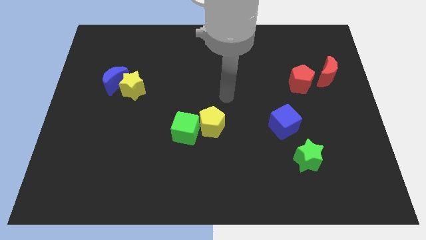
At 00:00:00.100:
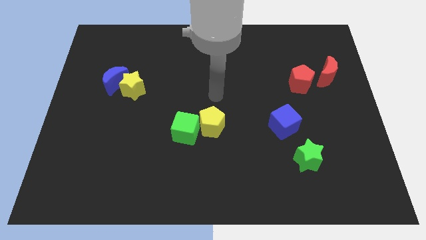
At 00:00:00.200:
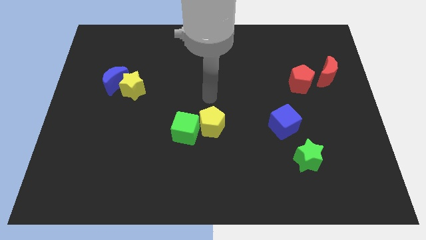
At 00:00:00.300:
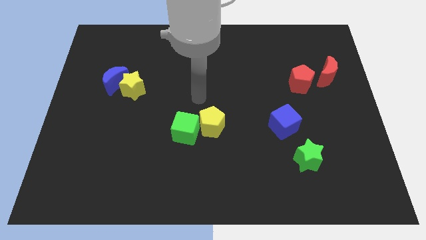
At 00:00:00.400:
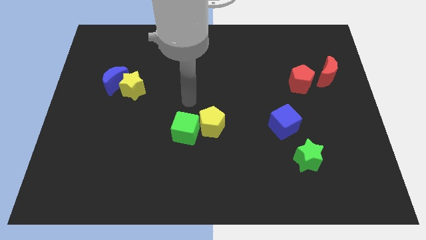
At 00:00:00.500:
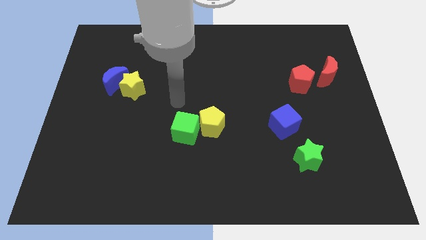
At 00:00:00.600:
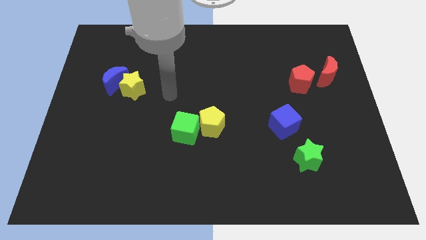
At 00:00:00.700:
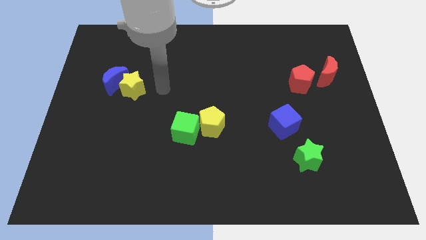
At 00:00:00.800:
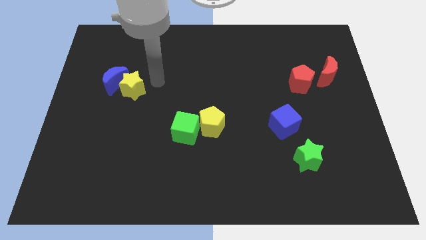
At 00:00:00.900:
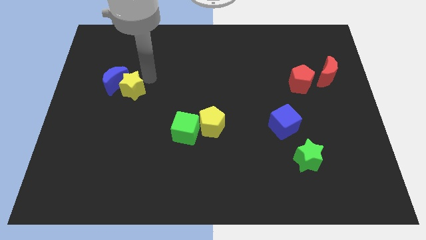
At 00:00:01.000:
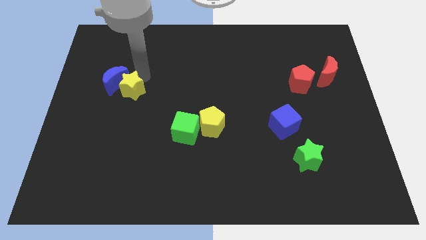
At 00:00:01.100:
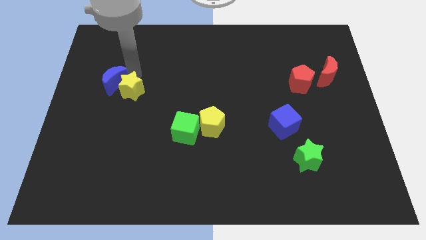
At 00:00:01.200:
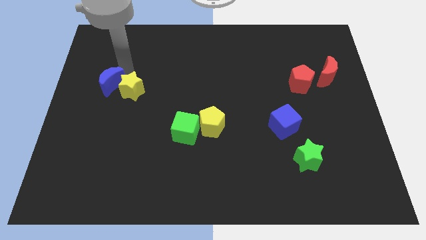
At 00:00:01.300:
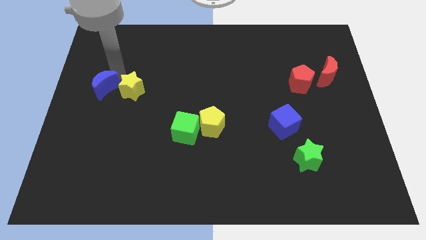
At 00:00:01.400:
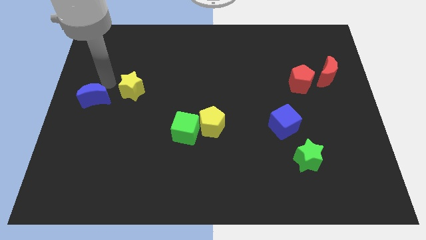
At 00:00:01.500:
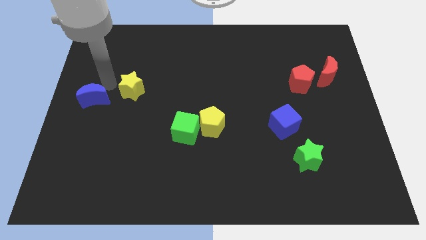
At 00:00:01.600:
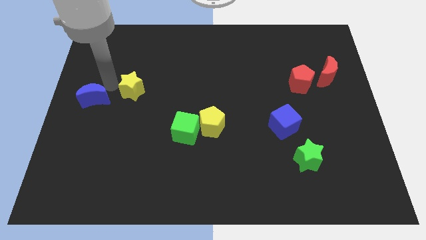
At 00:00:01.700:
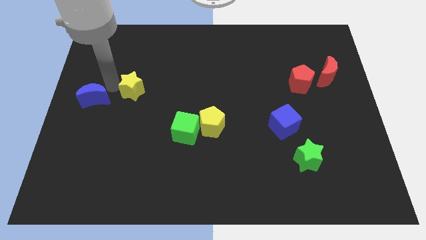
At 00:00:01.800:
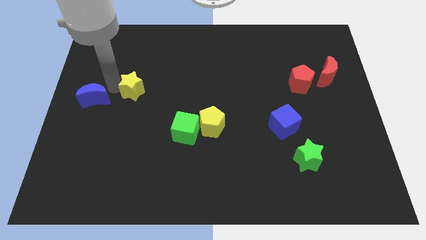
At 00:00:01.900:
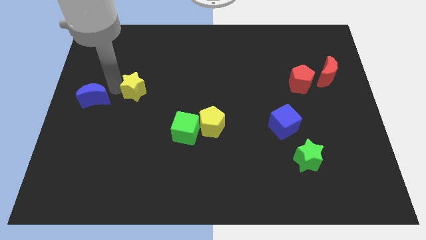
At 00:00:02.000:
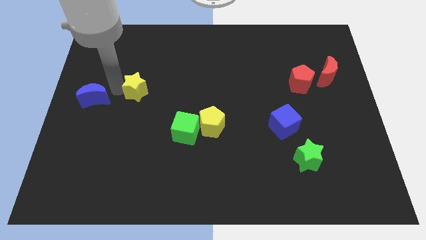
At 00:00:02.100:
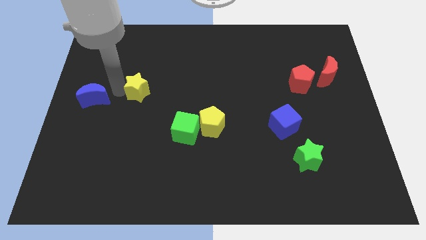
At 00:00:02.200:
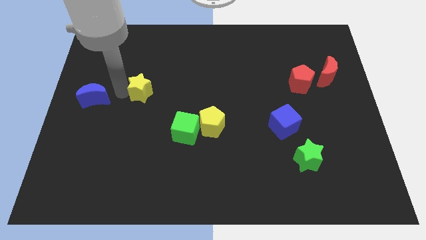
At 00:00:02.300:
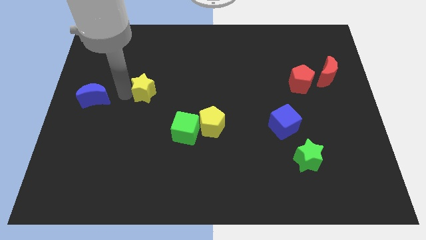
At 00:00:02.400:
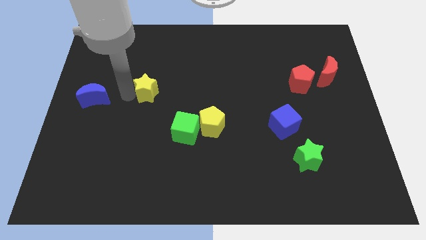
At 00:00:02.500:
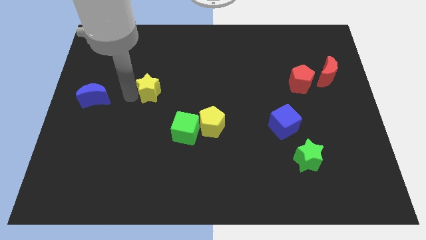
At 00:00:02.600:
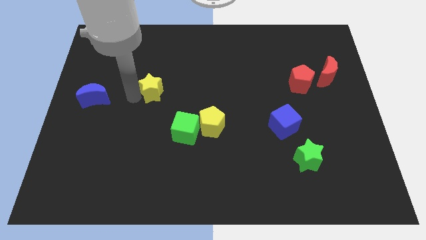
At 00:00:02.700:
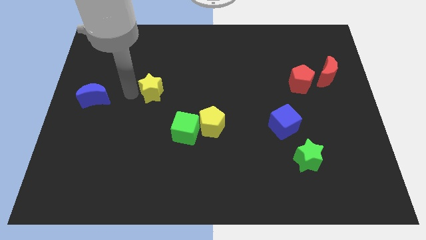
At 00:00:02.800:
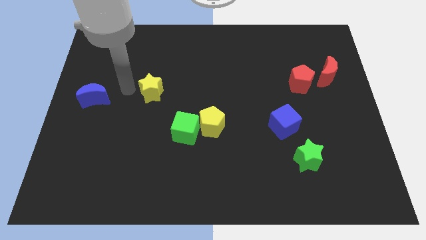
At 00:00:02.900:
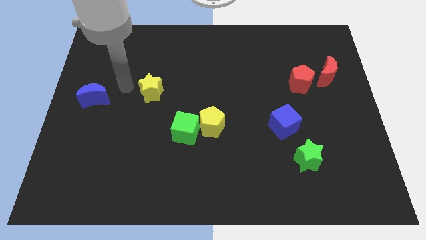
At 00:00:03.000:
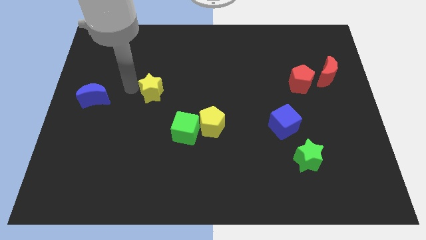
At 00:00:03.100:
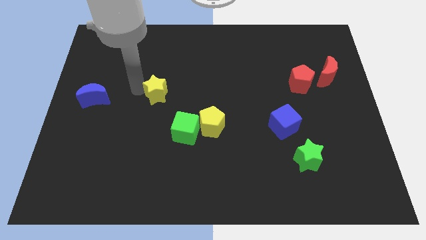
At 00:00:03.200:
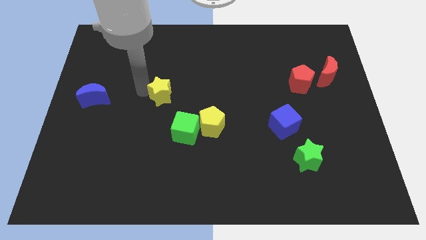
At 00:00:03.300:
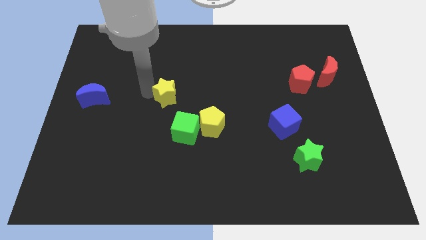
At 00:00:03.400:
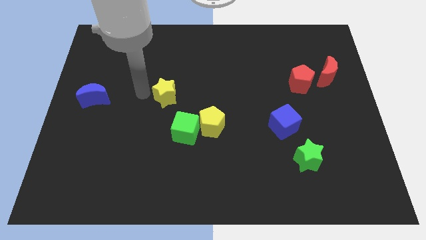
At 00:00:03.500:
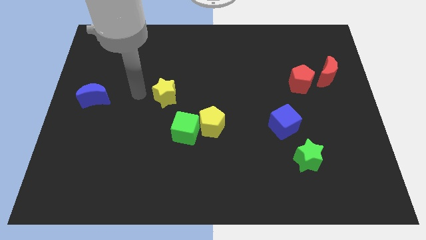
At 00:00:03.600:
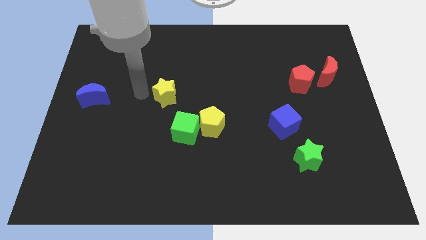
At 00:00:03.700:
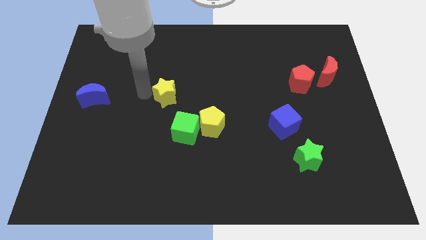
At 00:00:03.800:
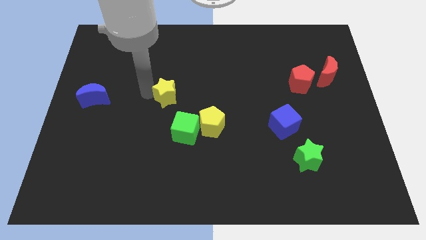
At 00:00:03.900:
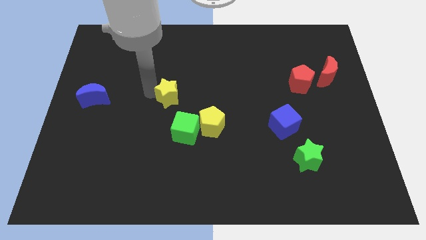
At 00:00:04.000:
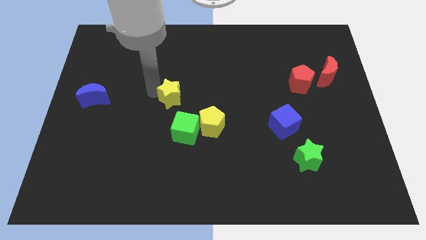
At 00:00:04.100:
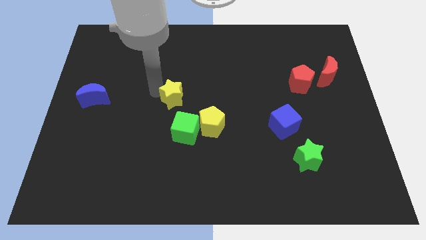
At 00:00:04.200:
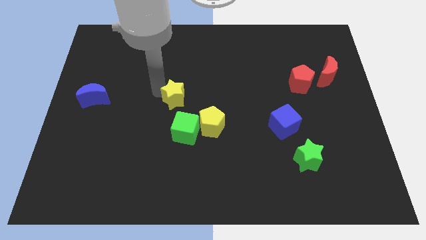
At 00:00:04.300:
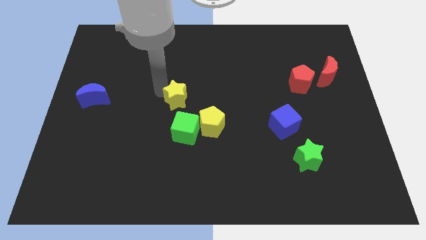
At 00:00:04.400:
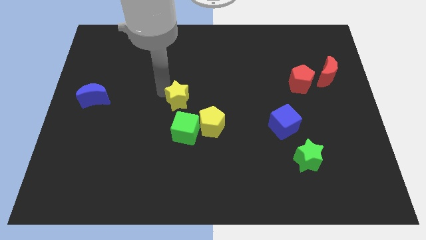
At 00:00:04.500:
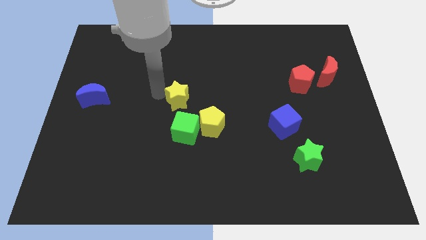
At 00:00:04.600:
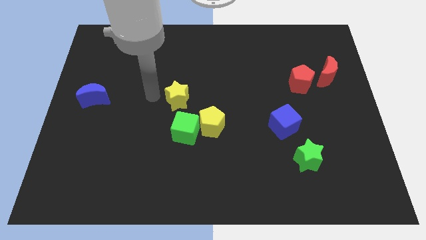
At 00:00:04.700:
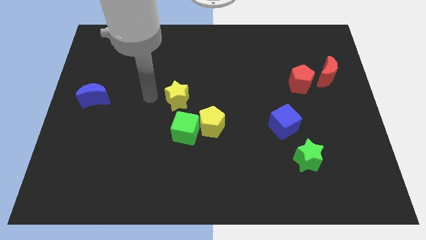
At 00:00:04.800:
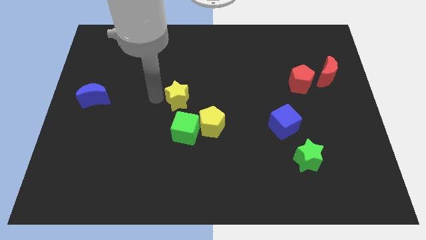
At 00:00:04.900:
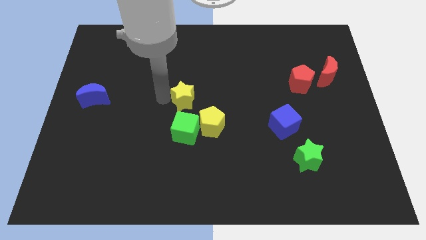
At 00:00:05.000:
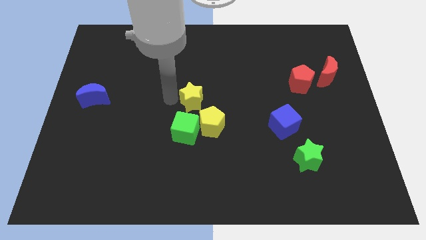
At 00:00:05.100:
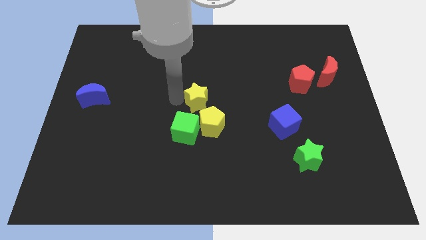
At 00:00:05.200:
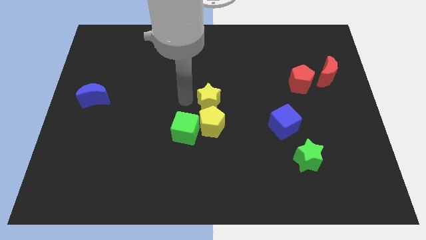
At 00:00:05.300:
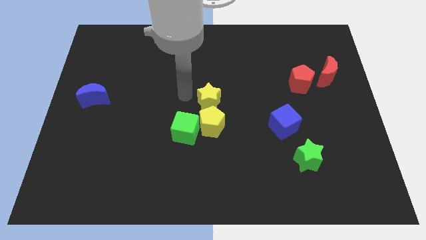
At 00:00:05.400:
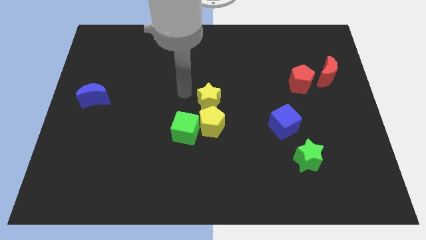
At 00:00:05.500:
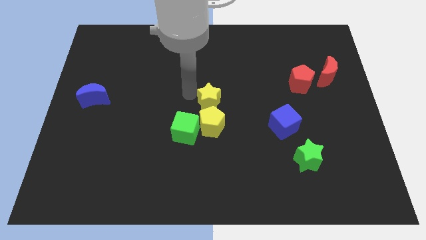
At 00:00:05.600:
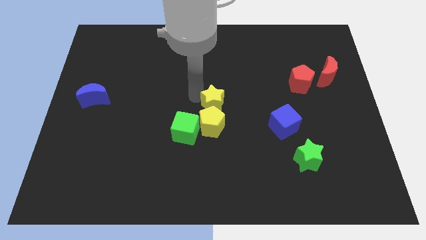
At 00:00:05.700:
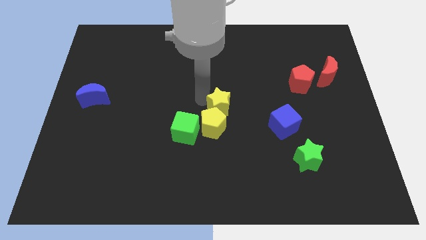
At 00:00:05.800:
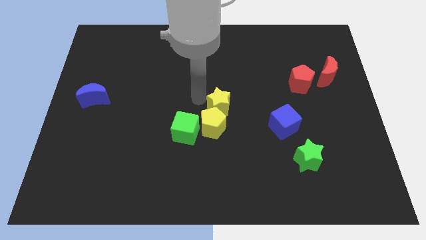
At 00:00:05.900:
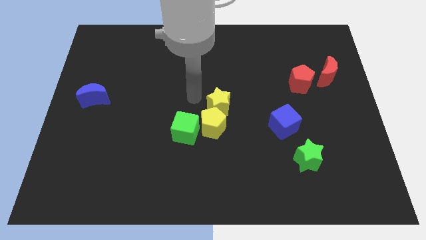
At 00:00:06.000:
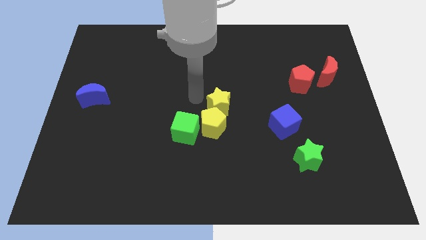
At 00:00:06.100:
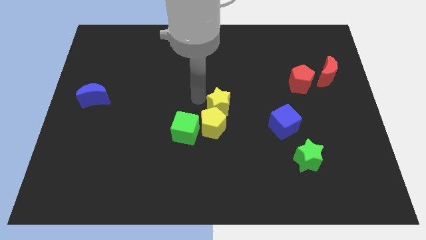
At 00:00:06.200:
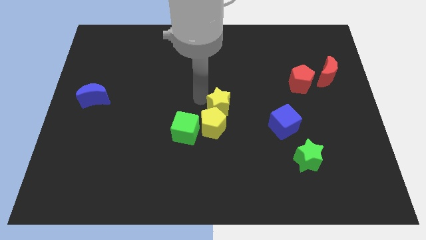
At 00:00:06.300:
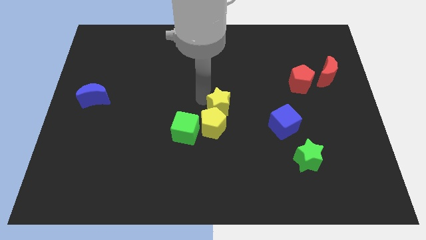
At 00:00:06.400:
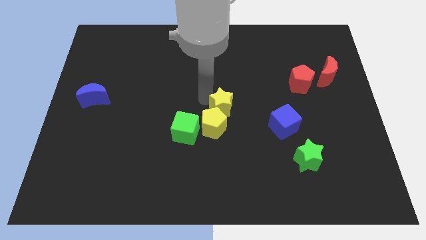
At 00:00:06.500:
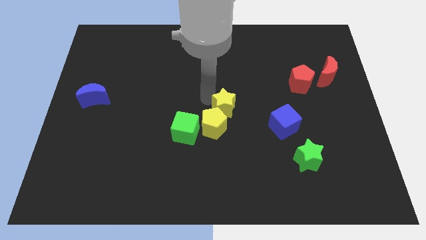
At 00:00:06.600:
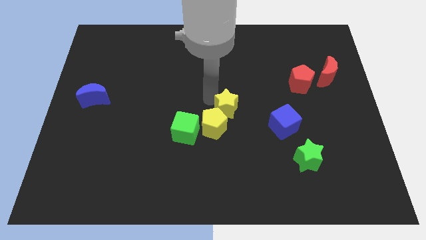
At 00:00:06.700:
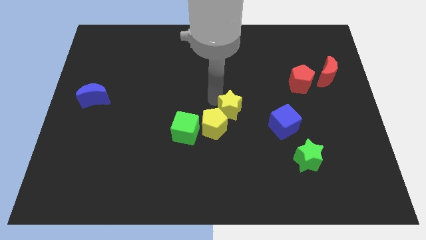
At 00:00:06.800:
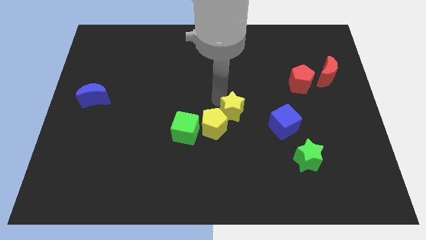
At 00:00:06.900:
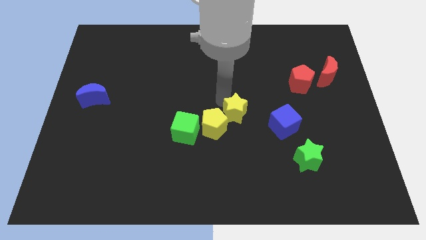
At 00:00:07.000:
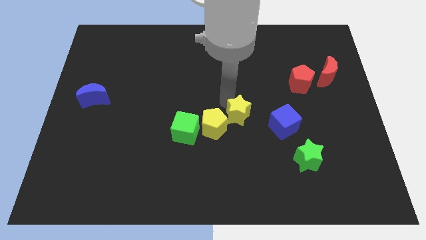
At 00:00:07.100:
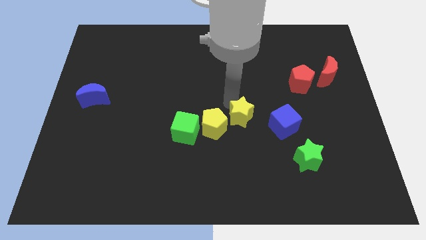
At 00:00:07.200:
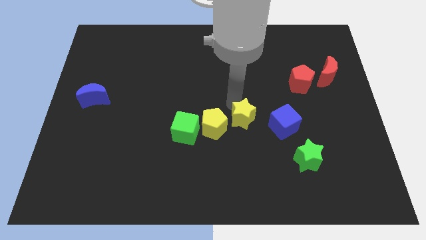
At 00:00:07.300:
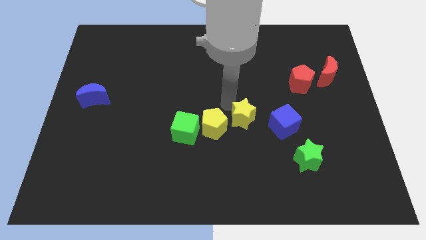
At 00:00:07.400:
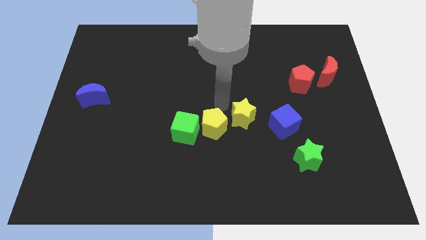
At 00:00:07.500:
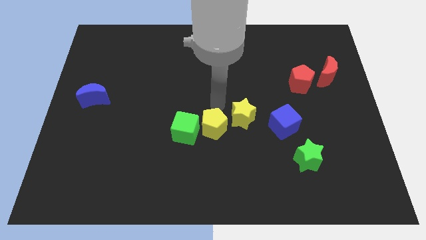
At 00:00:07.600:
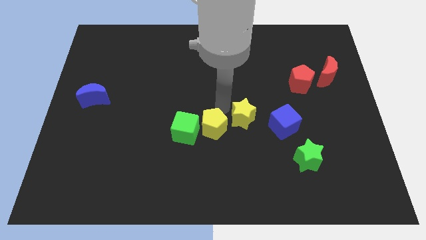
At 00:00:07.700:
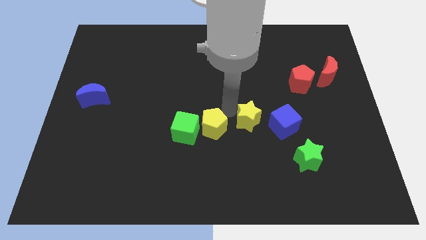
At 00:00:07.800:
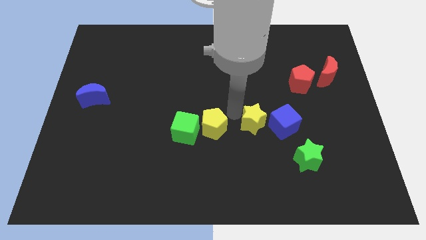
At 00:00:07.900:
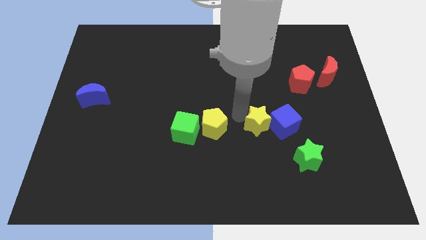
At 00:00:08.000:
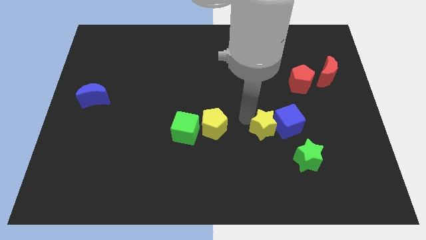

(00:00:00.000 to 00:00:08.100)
slide the yellow star to the top left side of the green star
